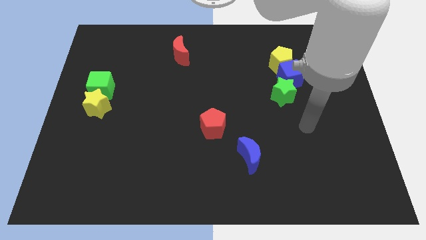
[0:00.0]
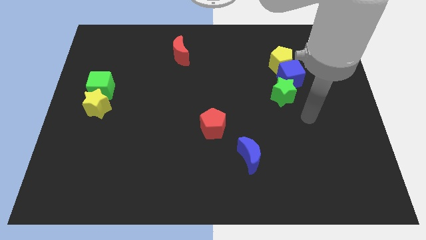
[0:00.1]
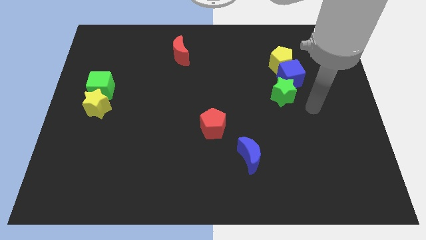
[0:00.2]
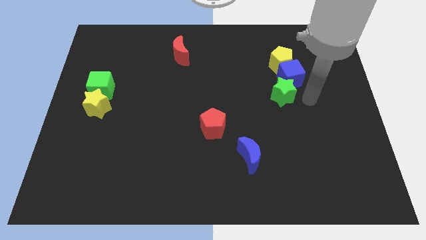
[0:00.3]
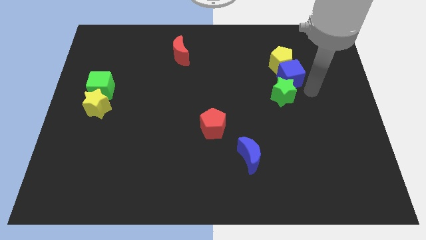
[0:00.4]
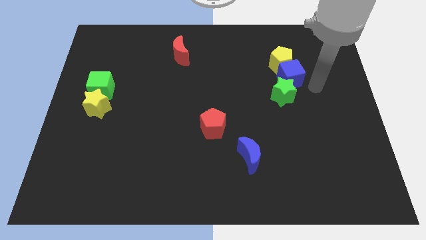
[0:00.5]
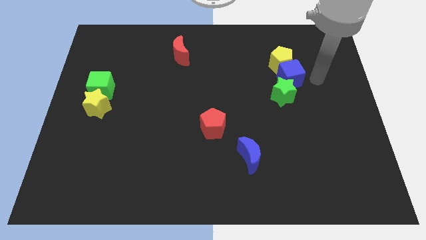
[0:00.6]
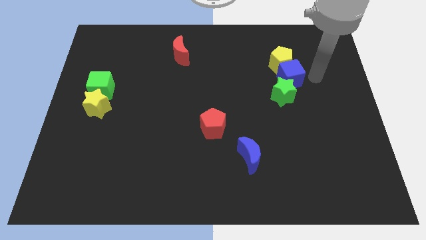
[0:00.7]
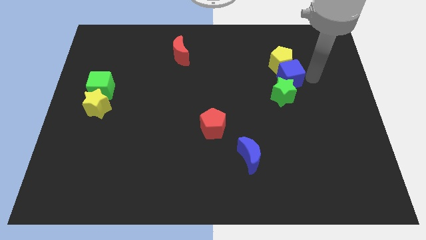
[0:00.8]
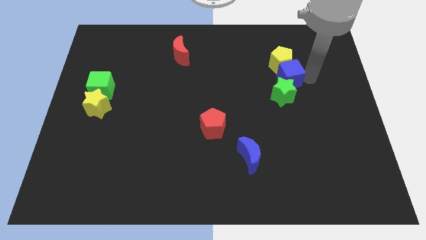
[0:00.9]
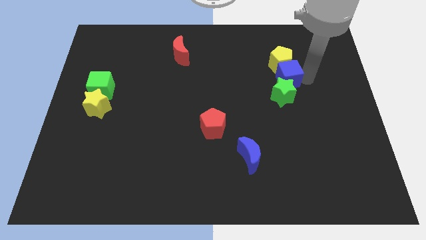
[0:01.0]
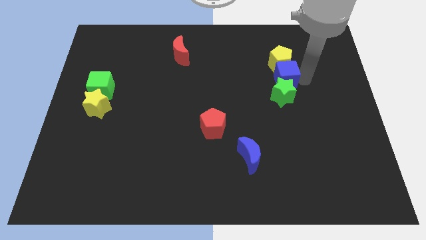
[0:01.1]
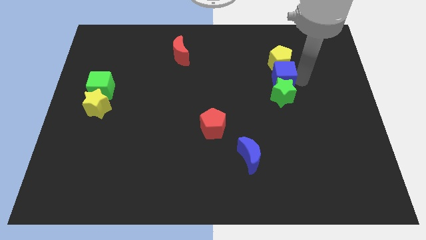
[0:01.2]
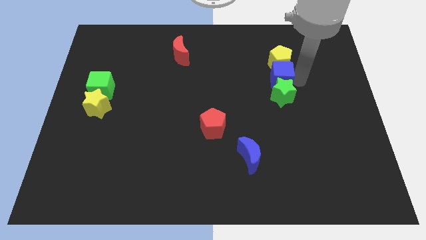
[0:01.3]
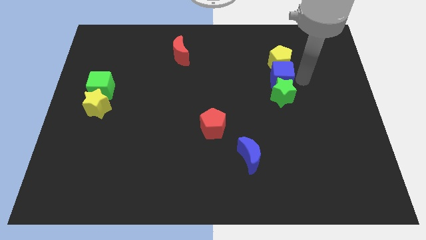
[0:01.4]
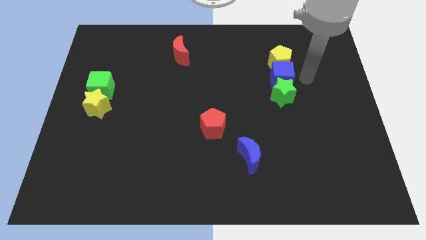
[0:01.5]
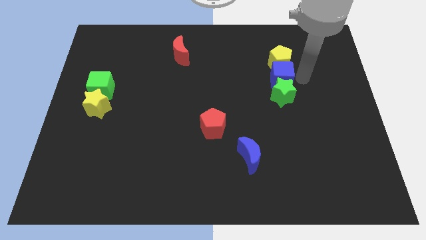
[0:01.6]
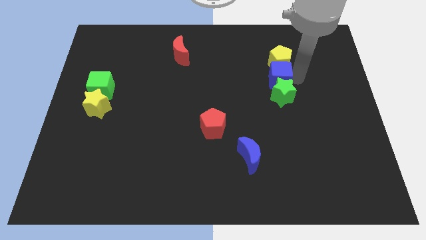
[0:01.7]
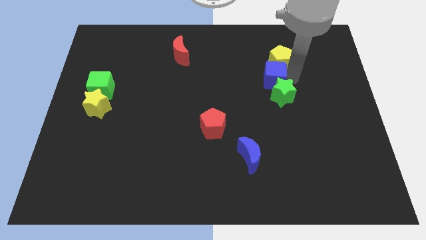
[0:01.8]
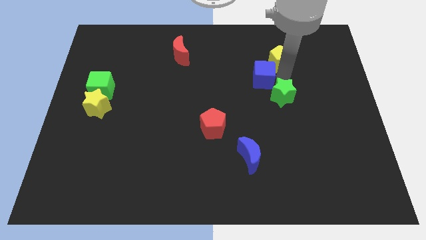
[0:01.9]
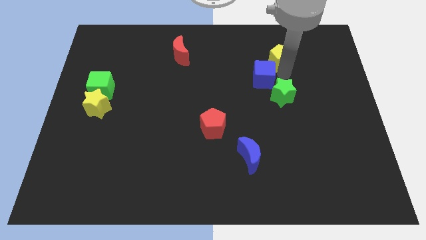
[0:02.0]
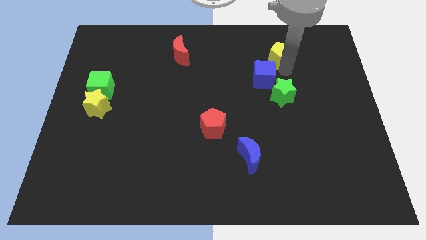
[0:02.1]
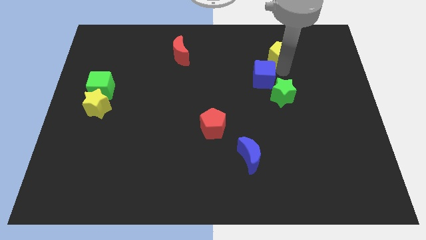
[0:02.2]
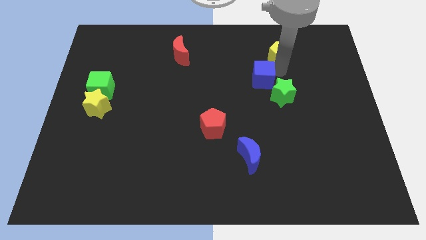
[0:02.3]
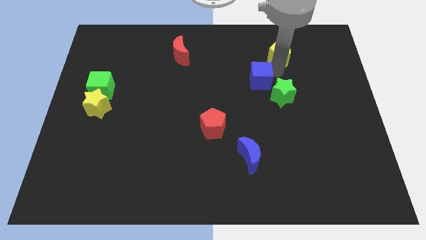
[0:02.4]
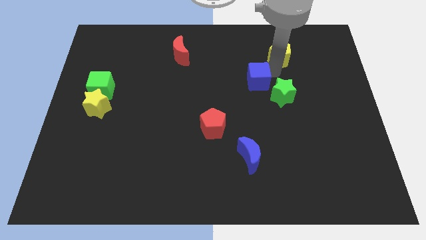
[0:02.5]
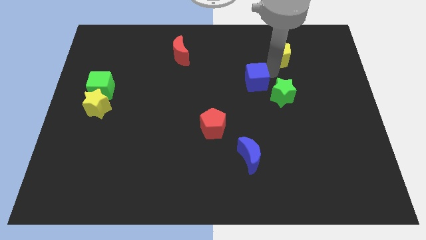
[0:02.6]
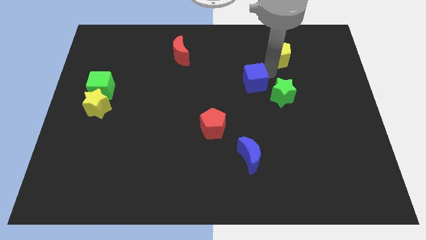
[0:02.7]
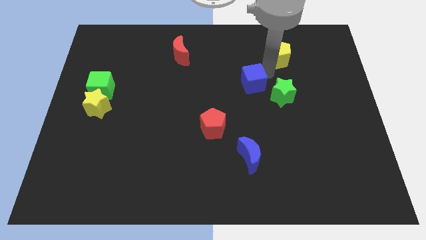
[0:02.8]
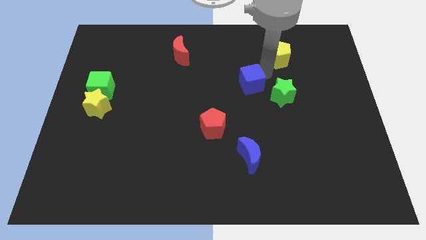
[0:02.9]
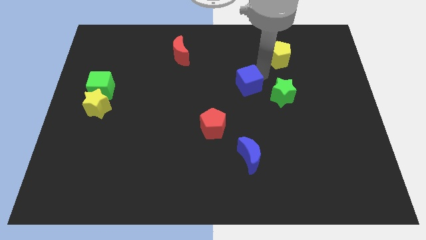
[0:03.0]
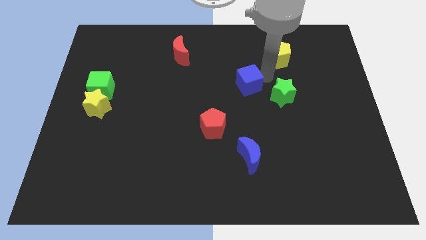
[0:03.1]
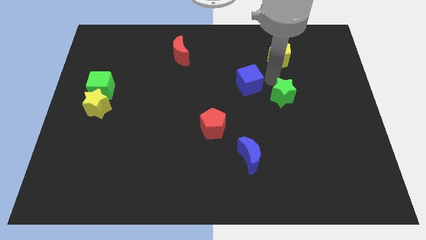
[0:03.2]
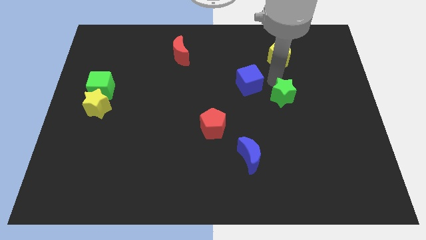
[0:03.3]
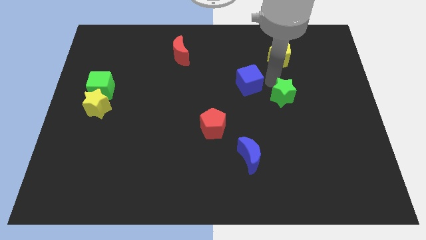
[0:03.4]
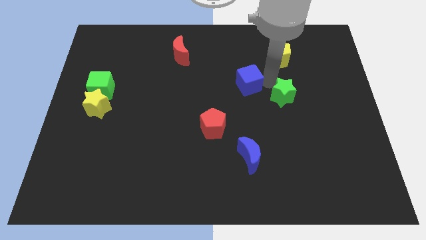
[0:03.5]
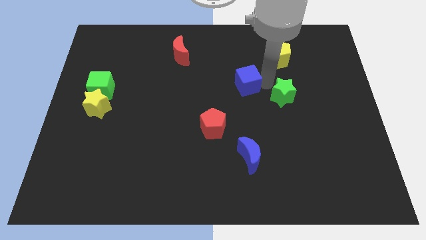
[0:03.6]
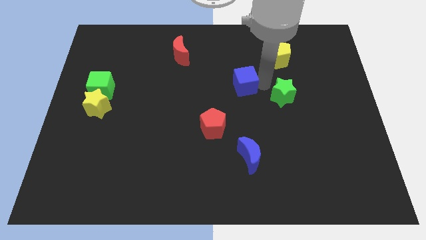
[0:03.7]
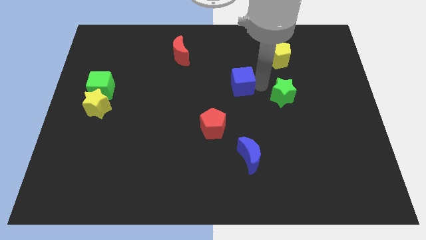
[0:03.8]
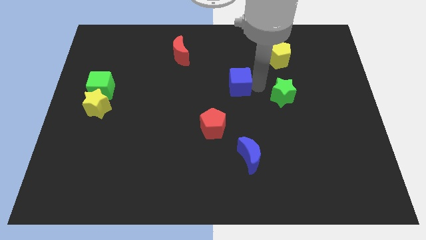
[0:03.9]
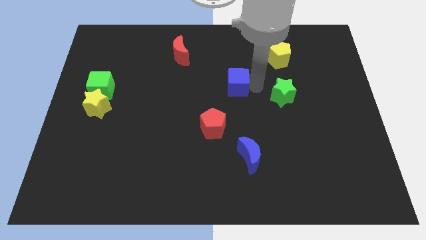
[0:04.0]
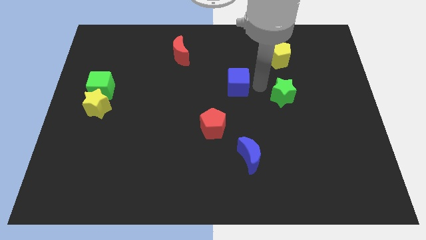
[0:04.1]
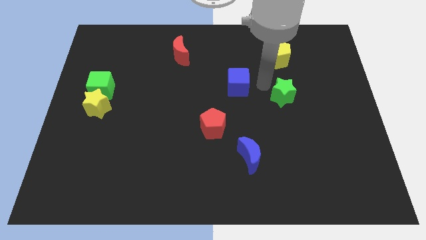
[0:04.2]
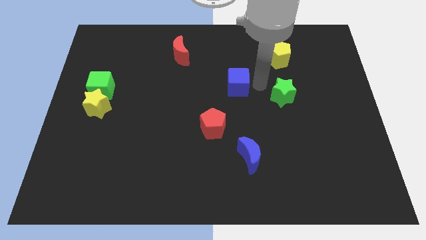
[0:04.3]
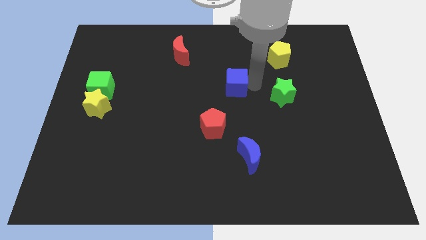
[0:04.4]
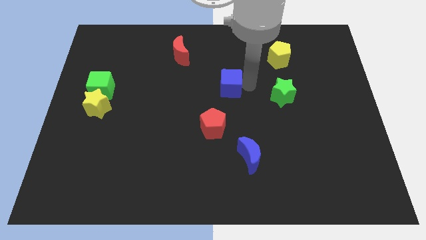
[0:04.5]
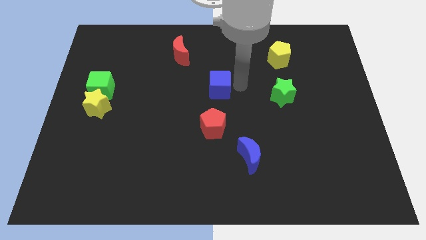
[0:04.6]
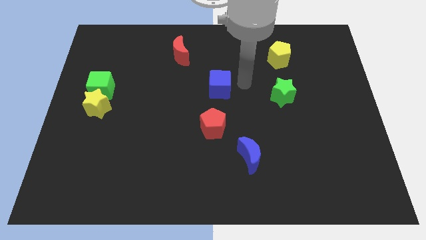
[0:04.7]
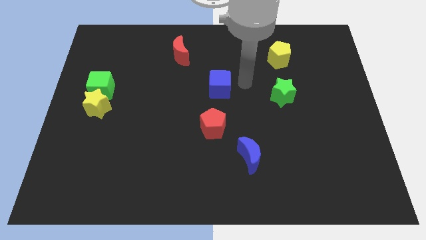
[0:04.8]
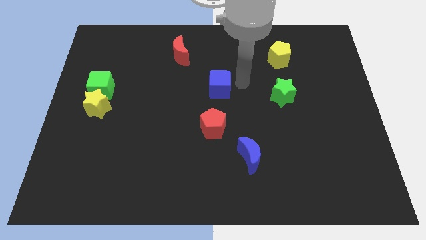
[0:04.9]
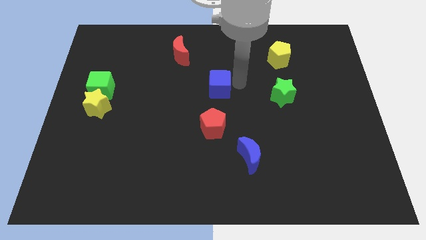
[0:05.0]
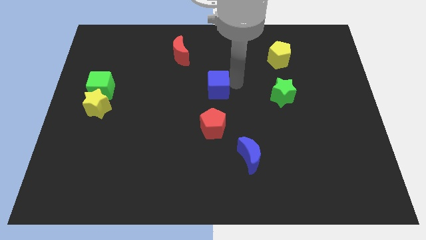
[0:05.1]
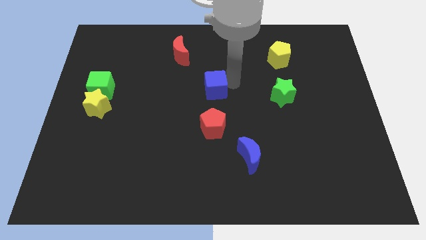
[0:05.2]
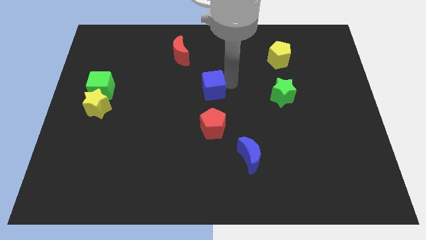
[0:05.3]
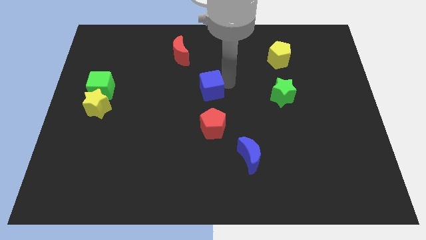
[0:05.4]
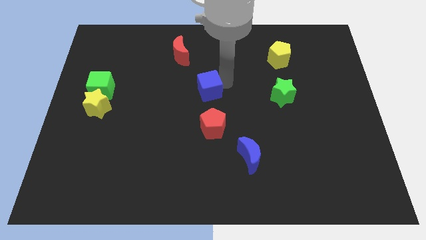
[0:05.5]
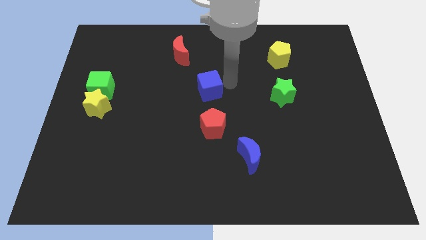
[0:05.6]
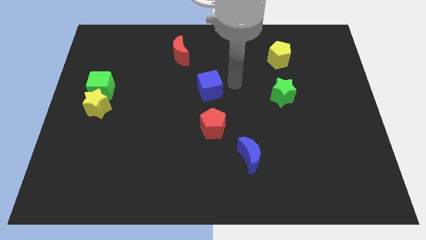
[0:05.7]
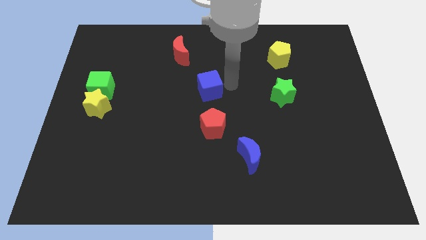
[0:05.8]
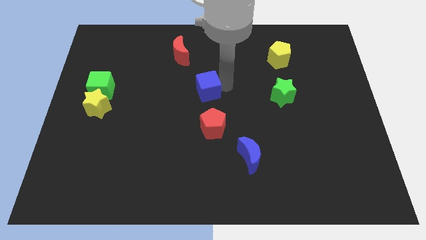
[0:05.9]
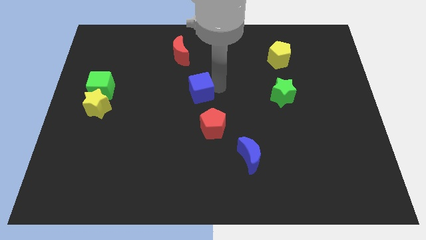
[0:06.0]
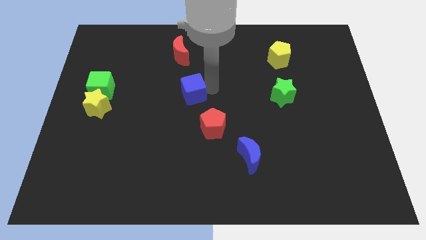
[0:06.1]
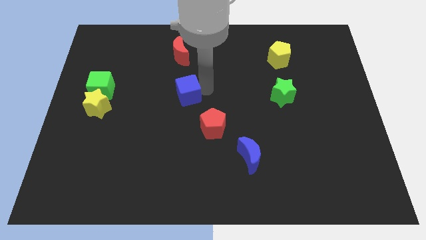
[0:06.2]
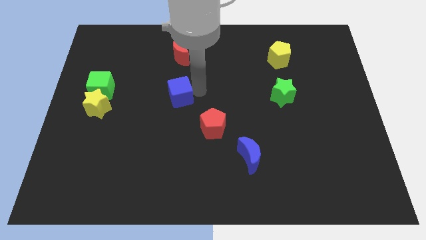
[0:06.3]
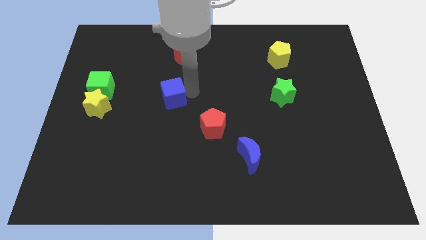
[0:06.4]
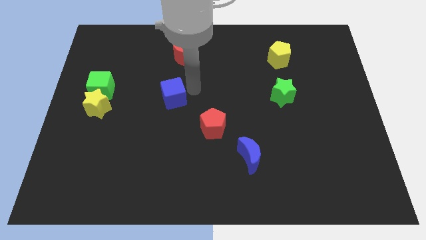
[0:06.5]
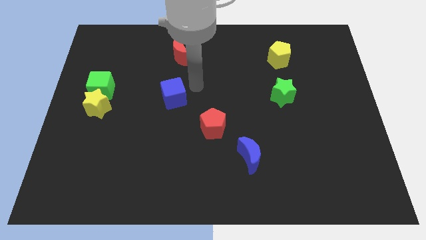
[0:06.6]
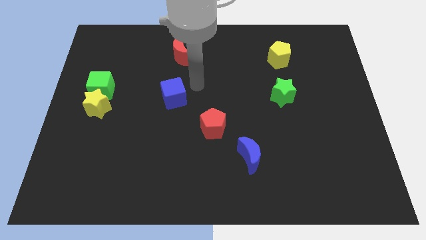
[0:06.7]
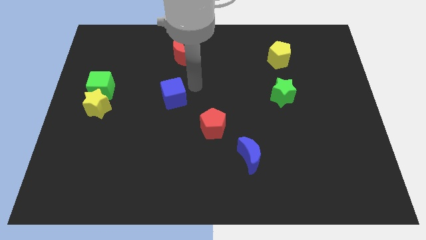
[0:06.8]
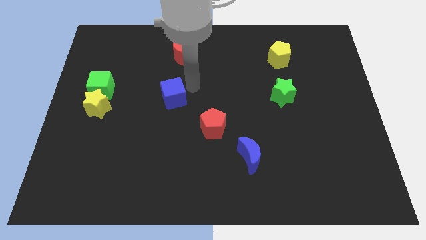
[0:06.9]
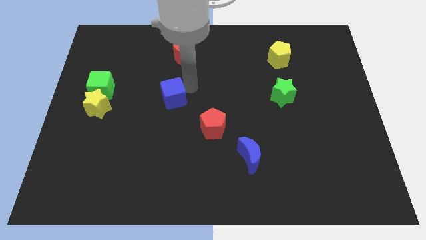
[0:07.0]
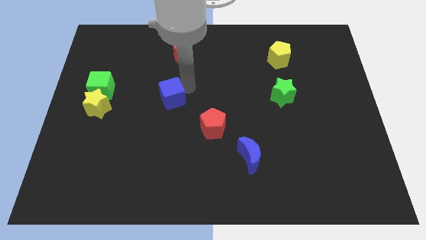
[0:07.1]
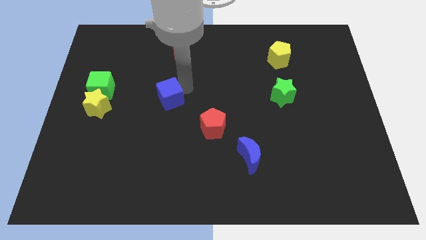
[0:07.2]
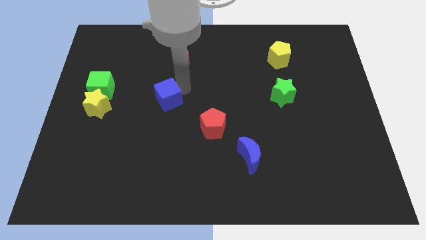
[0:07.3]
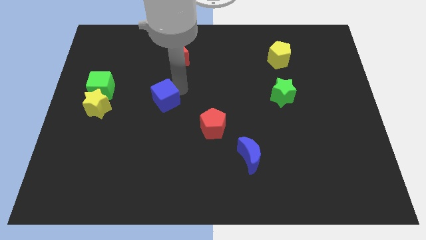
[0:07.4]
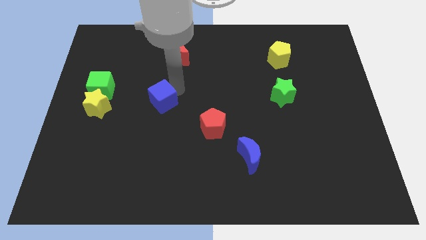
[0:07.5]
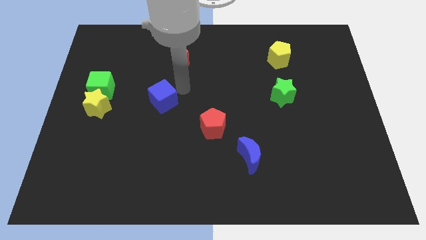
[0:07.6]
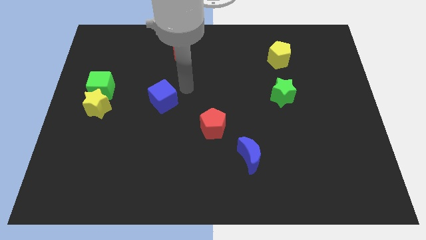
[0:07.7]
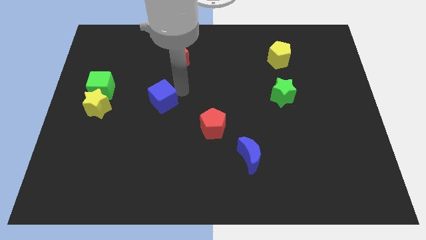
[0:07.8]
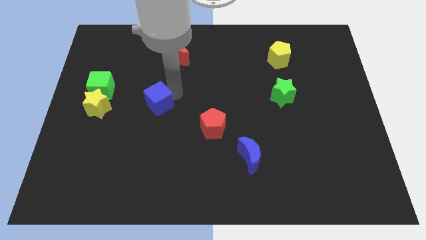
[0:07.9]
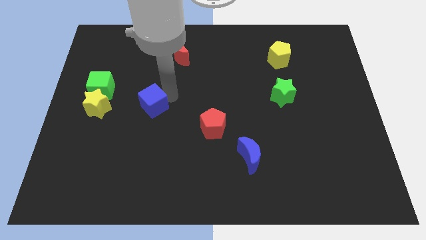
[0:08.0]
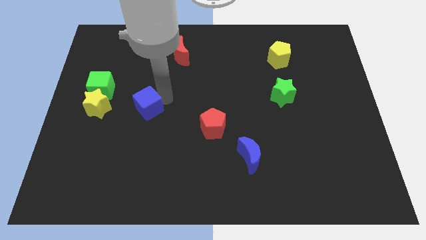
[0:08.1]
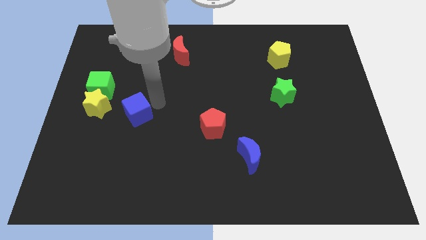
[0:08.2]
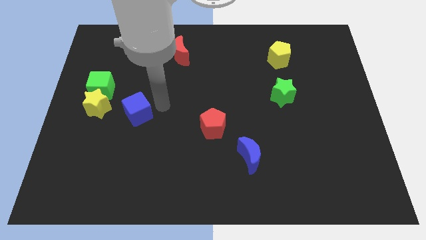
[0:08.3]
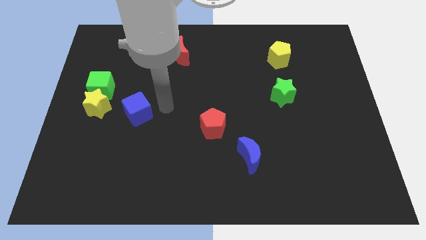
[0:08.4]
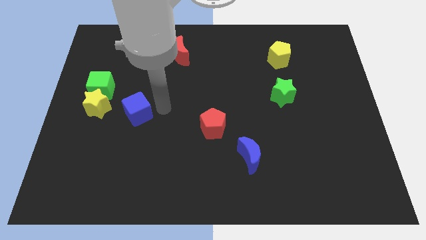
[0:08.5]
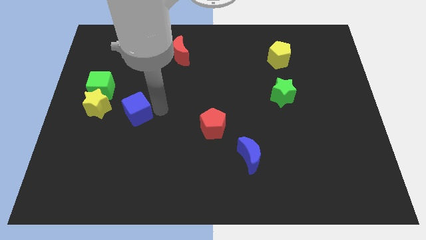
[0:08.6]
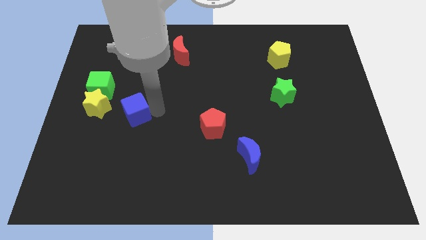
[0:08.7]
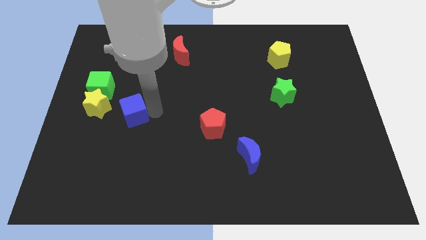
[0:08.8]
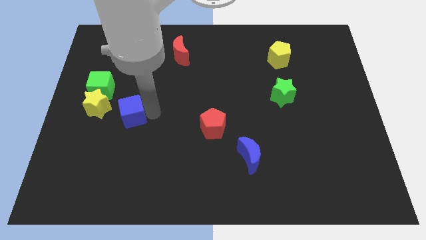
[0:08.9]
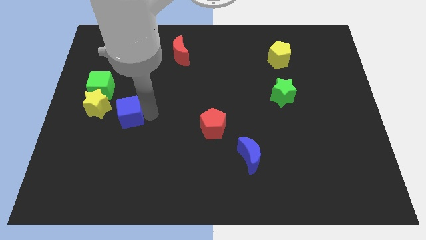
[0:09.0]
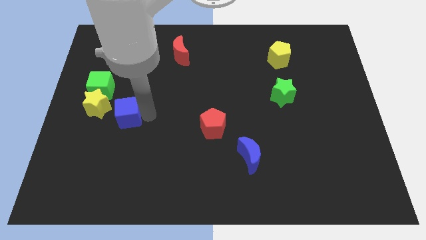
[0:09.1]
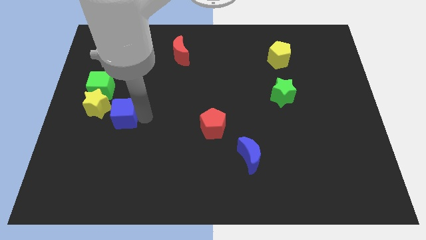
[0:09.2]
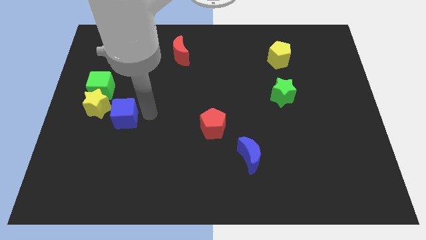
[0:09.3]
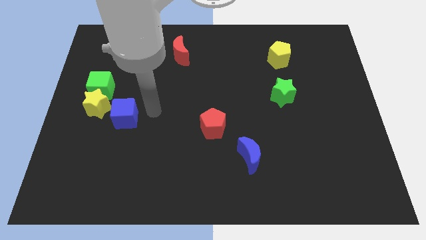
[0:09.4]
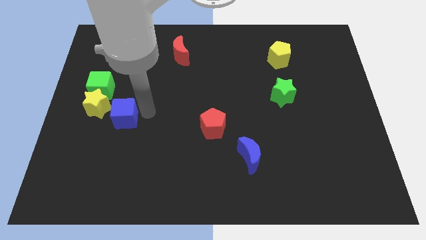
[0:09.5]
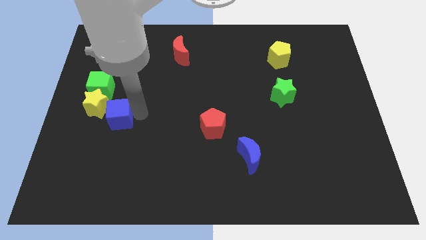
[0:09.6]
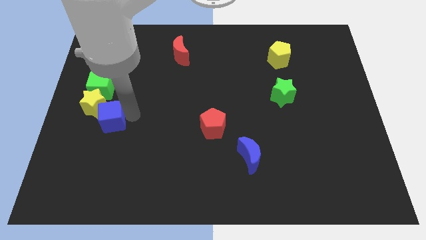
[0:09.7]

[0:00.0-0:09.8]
slide the blue cube to the bottom of the green cube
